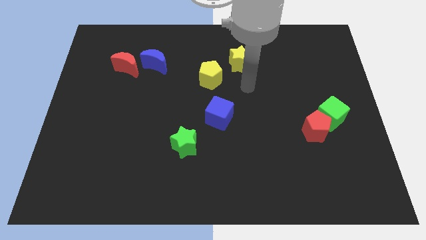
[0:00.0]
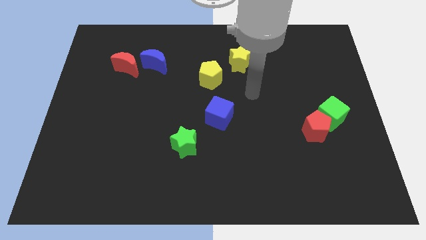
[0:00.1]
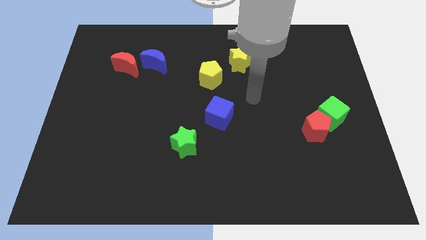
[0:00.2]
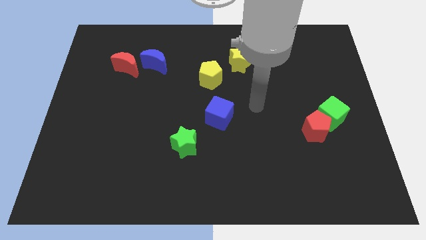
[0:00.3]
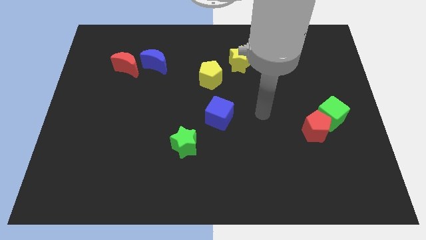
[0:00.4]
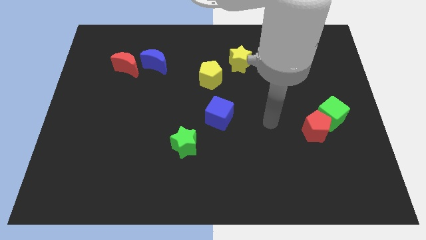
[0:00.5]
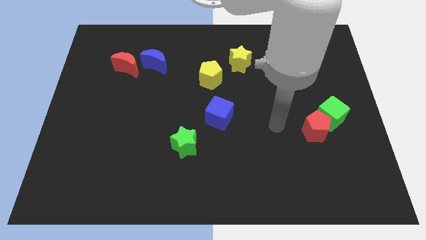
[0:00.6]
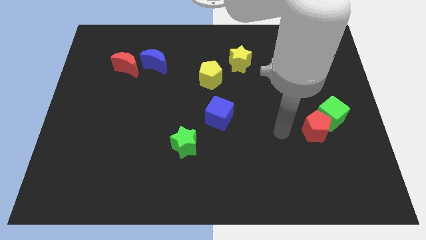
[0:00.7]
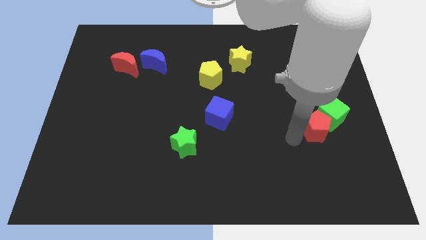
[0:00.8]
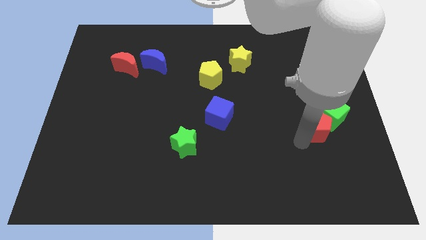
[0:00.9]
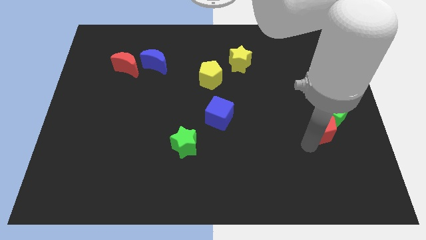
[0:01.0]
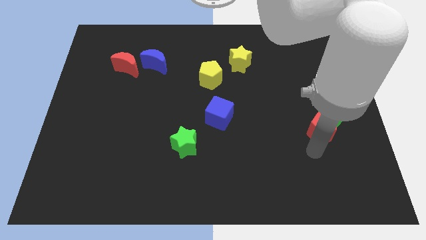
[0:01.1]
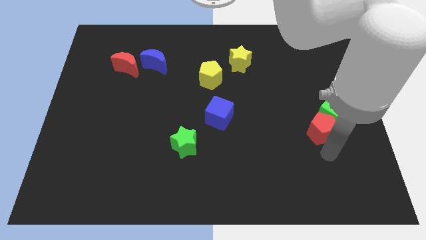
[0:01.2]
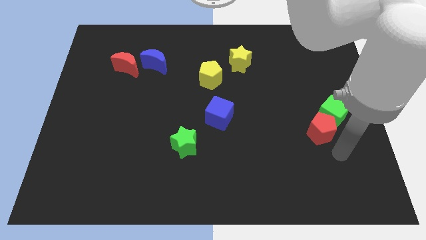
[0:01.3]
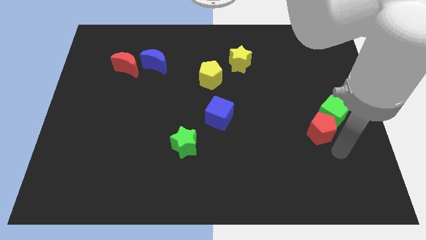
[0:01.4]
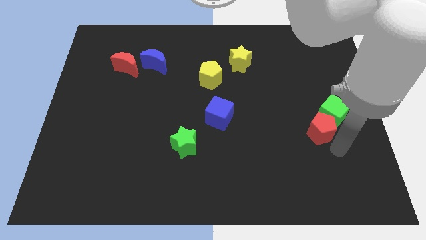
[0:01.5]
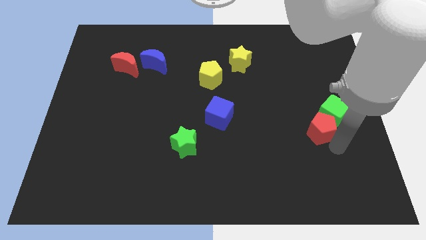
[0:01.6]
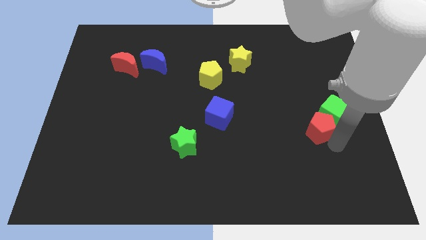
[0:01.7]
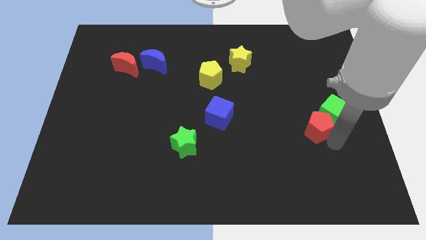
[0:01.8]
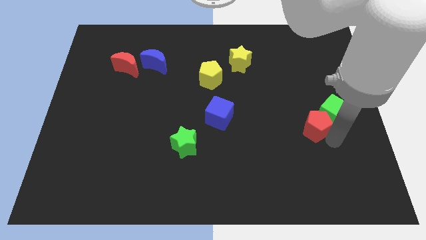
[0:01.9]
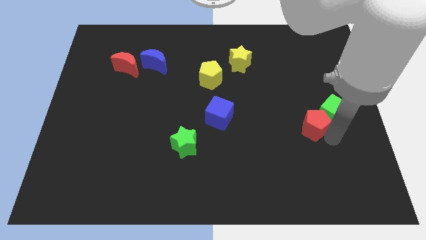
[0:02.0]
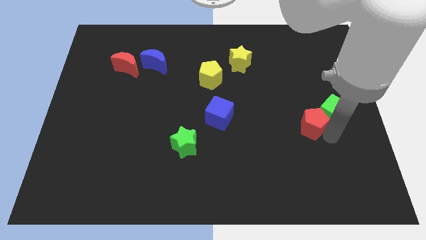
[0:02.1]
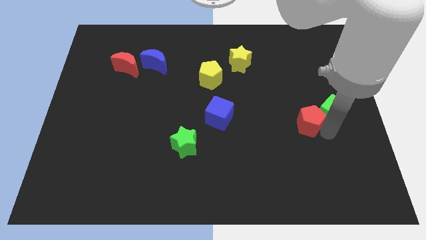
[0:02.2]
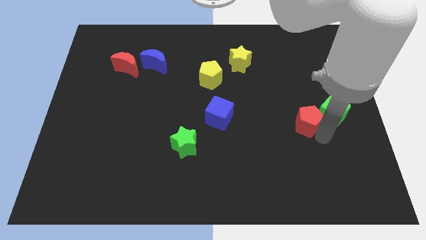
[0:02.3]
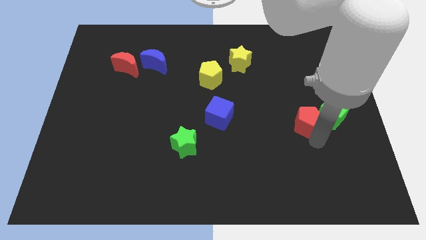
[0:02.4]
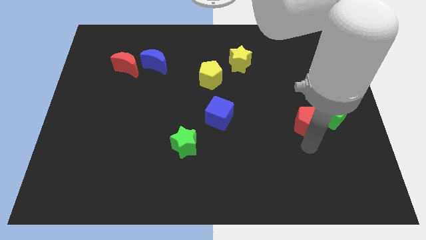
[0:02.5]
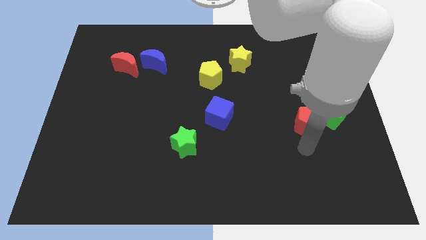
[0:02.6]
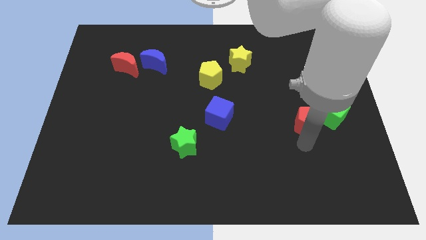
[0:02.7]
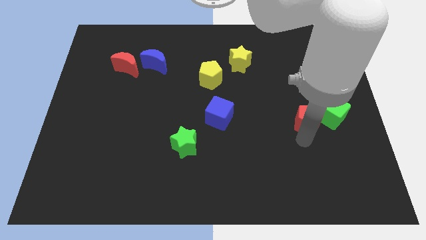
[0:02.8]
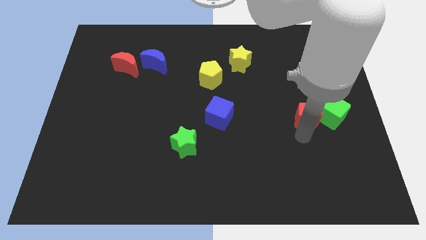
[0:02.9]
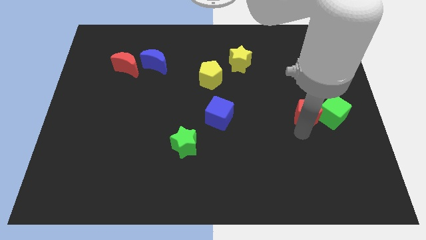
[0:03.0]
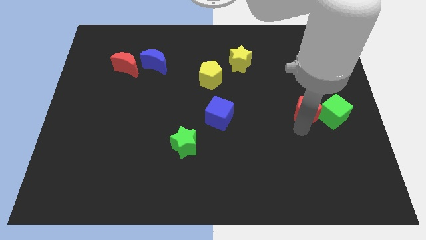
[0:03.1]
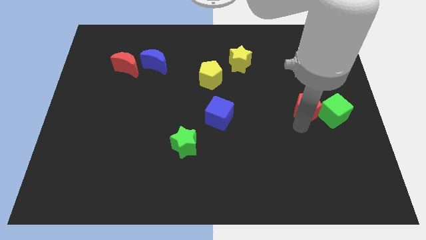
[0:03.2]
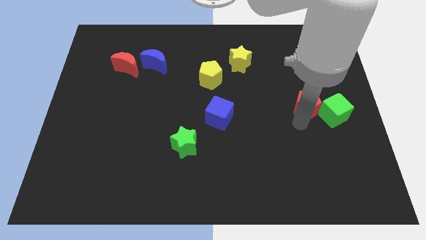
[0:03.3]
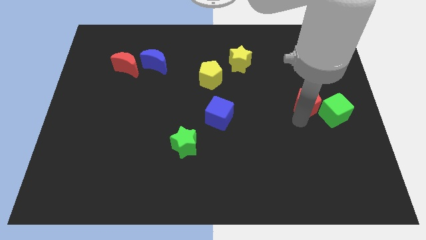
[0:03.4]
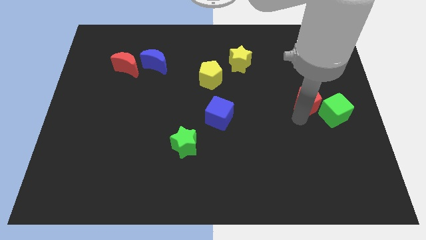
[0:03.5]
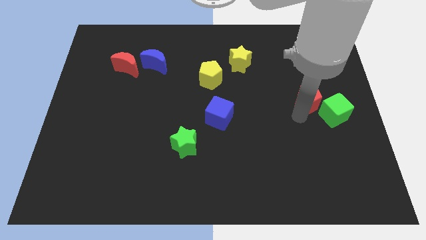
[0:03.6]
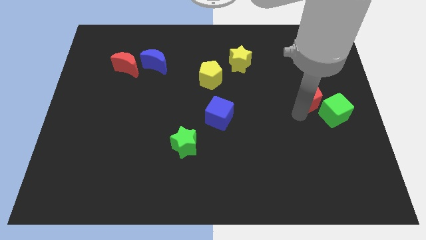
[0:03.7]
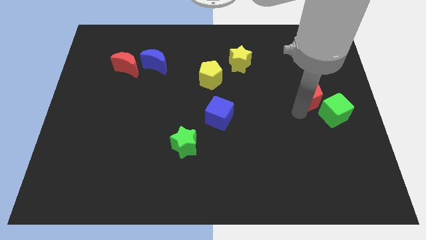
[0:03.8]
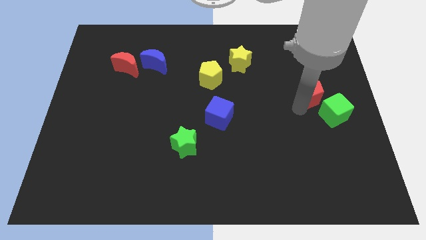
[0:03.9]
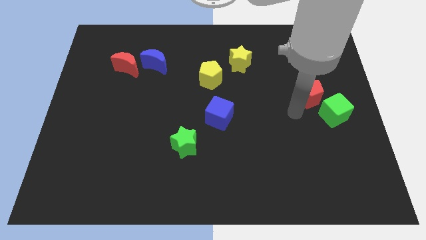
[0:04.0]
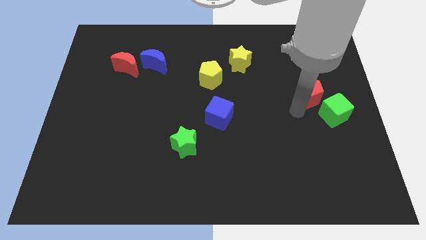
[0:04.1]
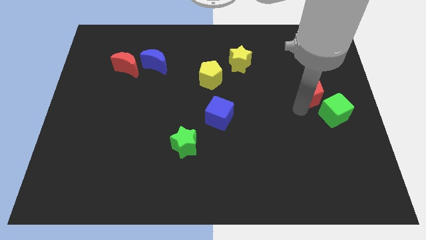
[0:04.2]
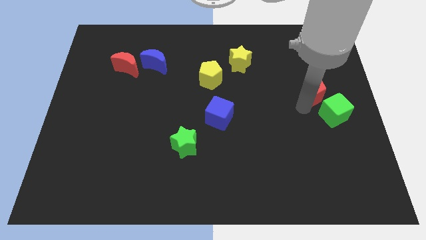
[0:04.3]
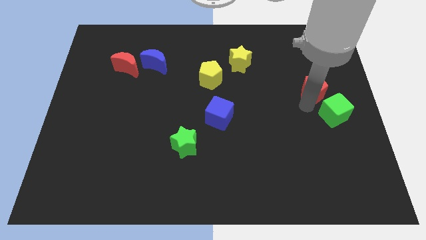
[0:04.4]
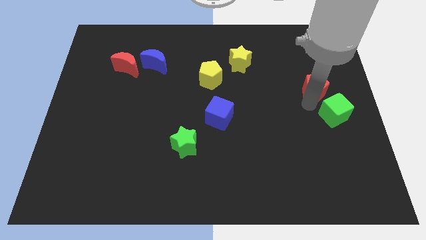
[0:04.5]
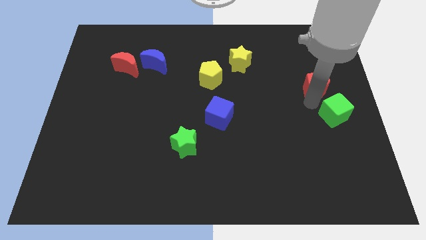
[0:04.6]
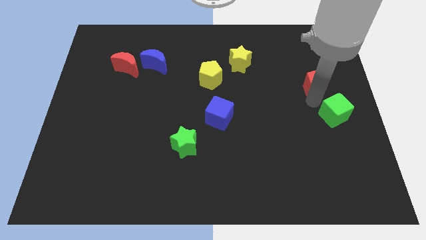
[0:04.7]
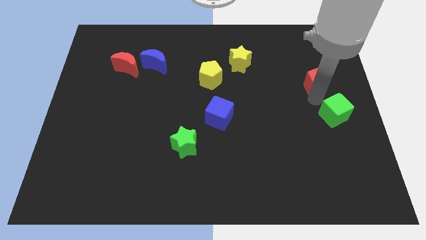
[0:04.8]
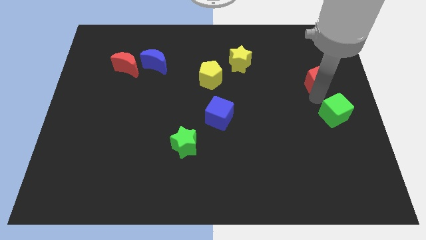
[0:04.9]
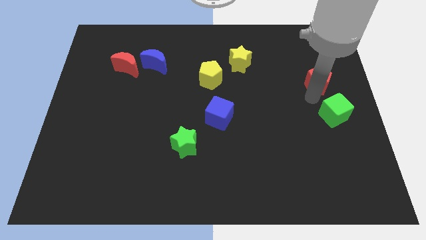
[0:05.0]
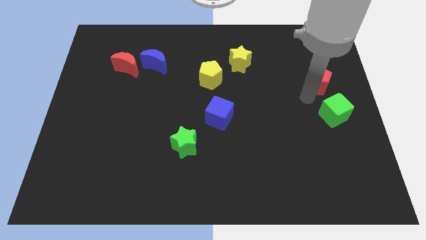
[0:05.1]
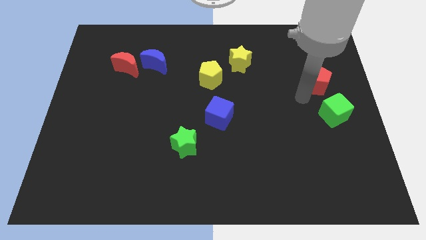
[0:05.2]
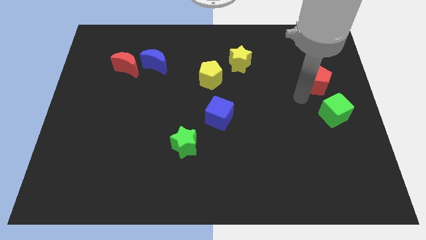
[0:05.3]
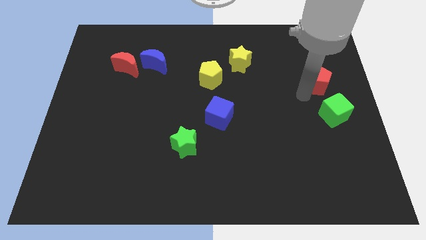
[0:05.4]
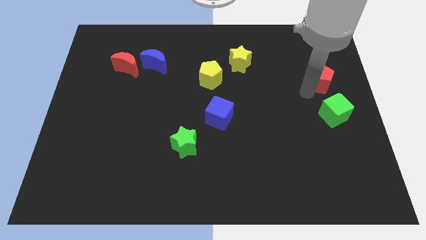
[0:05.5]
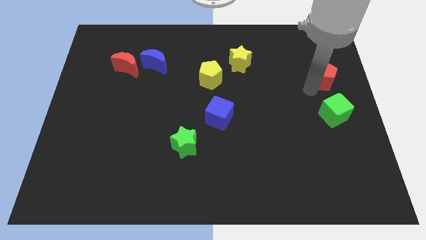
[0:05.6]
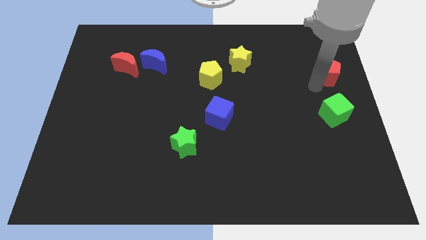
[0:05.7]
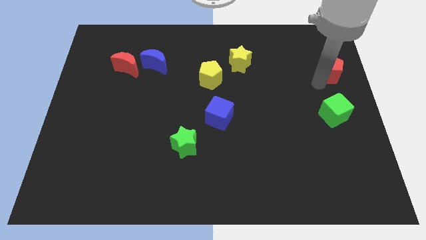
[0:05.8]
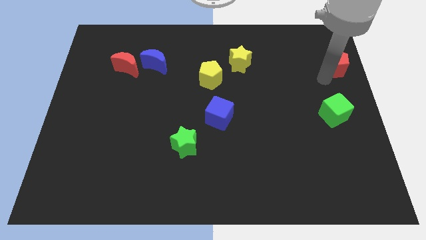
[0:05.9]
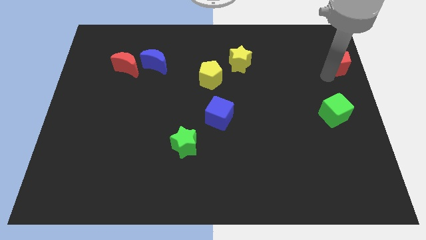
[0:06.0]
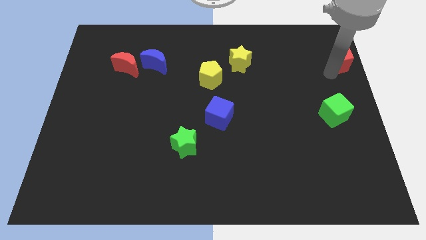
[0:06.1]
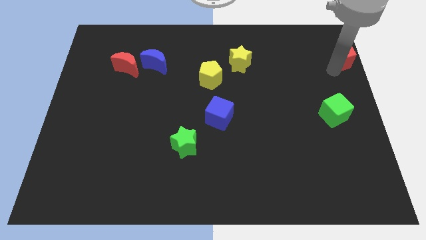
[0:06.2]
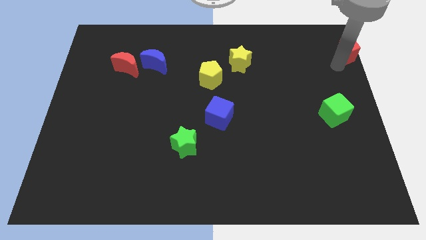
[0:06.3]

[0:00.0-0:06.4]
slide the red pentagon to the top right of the board
